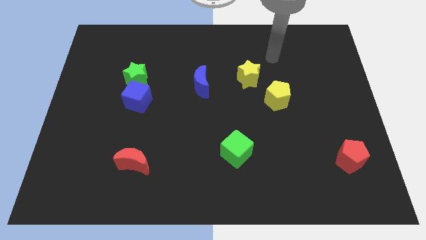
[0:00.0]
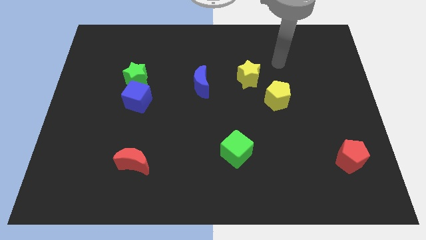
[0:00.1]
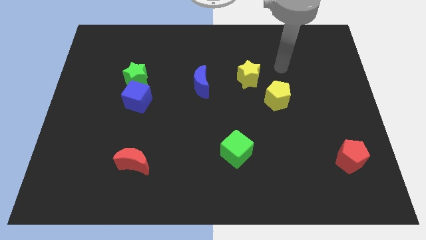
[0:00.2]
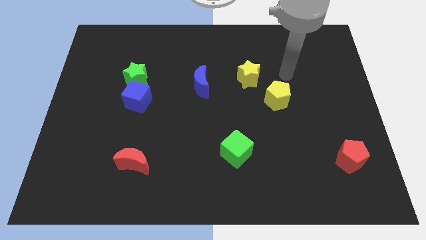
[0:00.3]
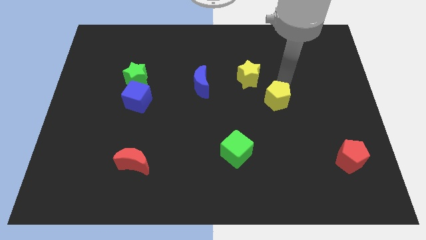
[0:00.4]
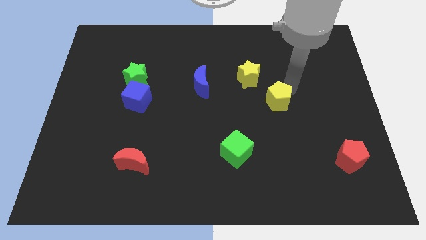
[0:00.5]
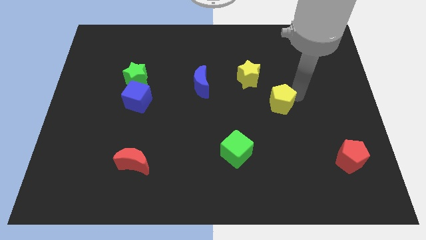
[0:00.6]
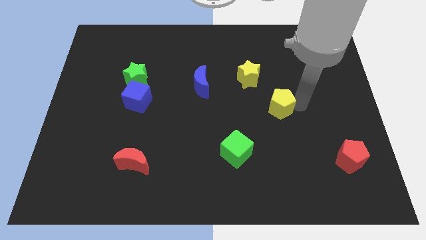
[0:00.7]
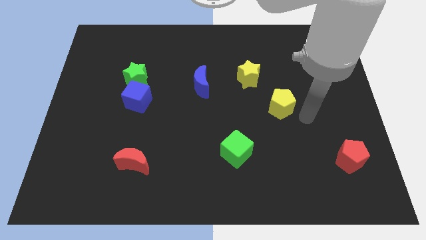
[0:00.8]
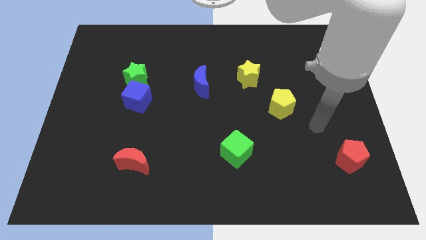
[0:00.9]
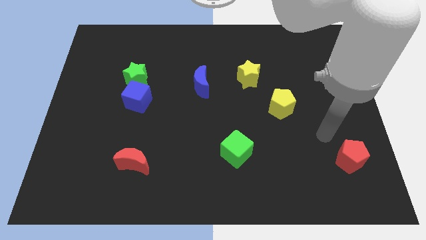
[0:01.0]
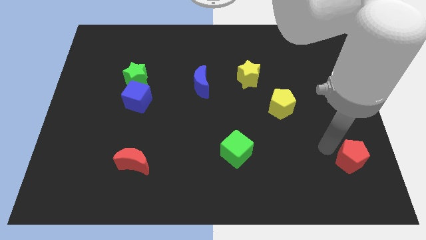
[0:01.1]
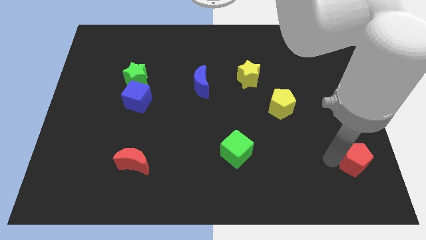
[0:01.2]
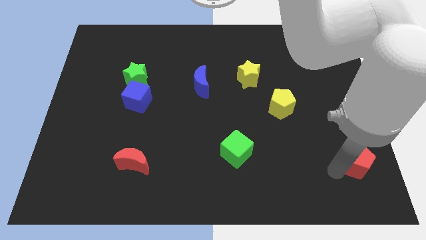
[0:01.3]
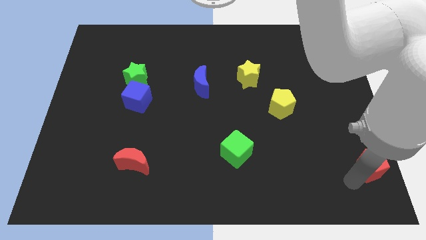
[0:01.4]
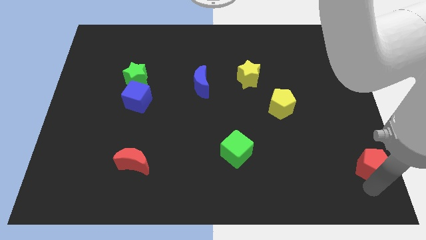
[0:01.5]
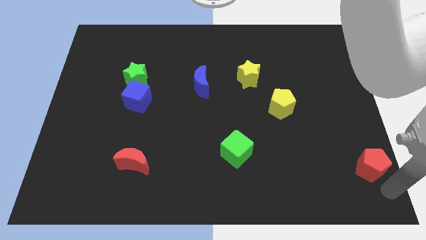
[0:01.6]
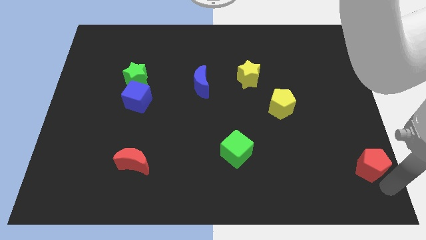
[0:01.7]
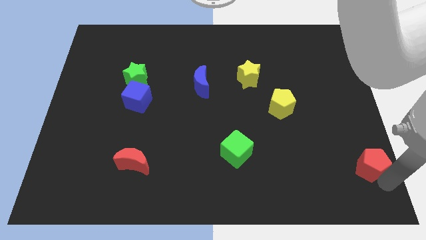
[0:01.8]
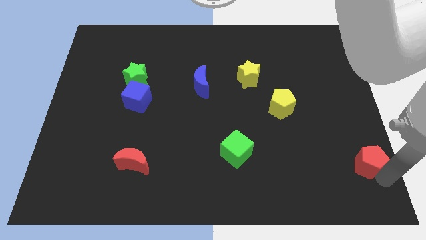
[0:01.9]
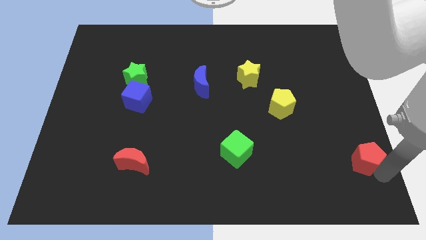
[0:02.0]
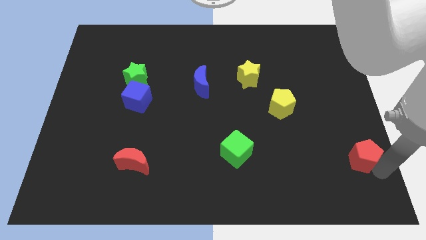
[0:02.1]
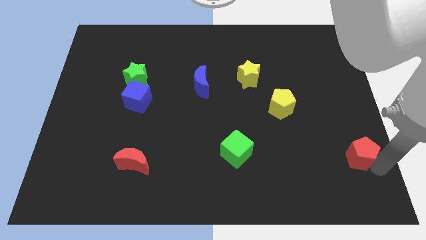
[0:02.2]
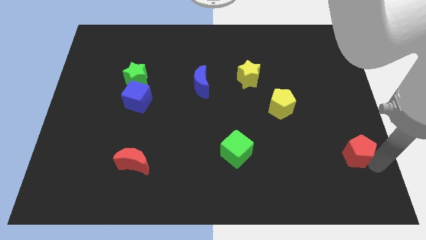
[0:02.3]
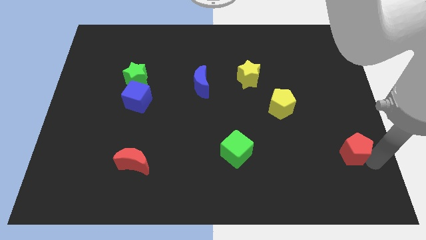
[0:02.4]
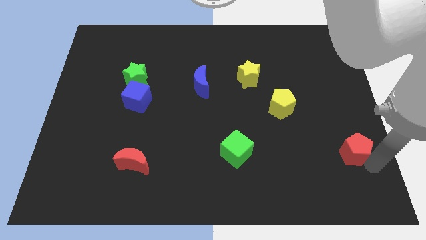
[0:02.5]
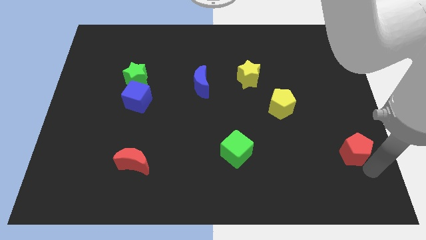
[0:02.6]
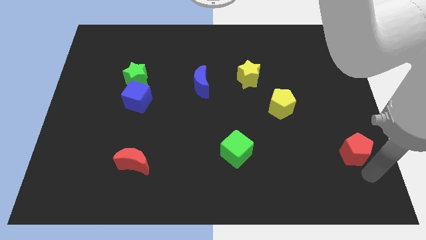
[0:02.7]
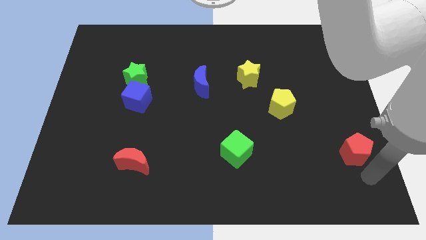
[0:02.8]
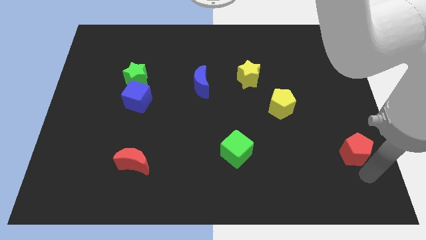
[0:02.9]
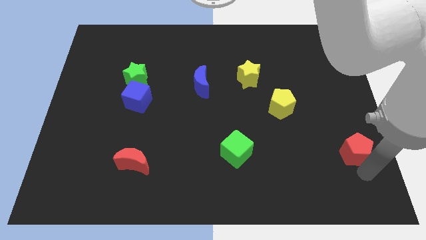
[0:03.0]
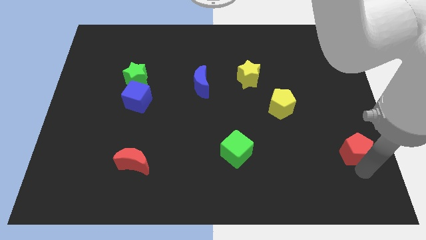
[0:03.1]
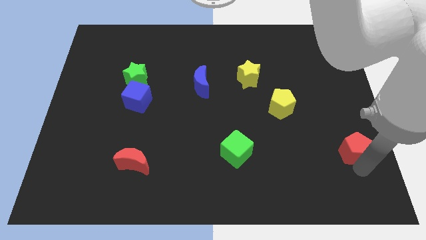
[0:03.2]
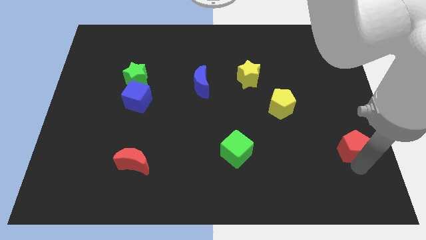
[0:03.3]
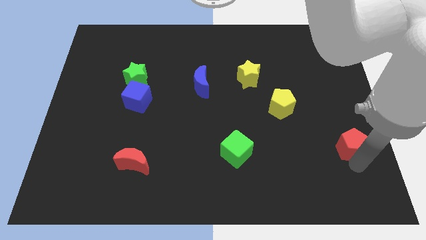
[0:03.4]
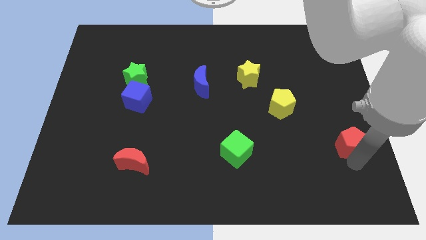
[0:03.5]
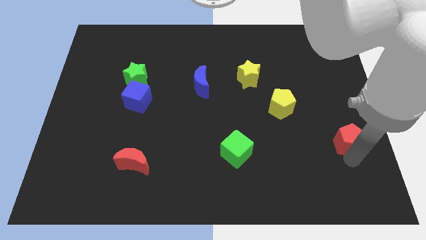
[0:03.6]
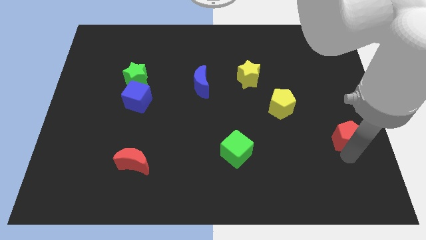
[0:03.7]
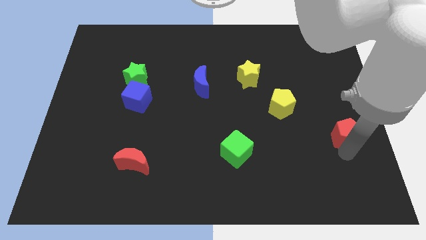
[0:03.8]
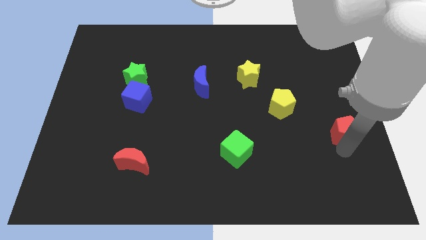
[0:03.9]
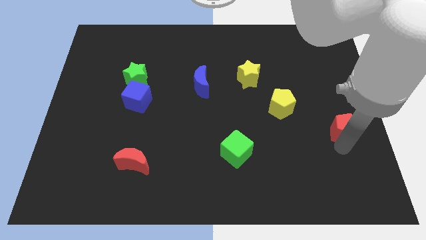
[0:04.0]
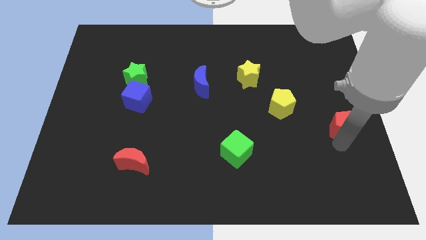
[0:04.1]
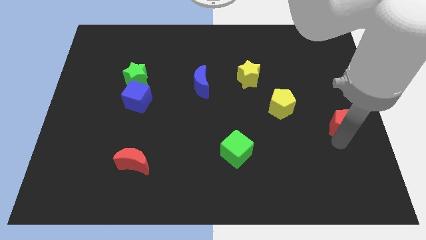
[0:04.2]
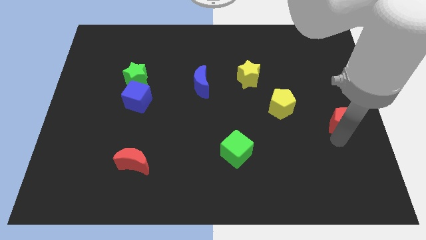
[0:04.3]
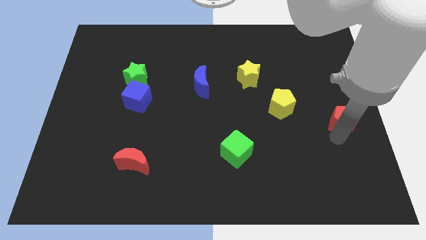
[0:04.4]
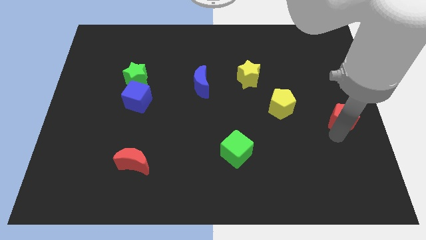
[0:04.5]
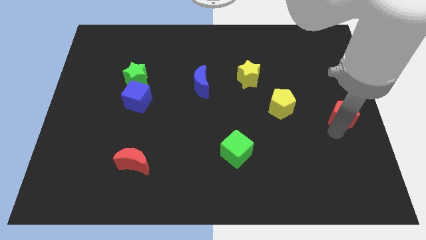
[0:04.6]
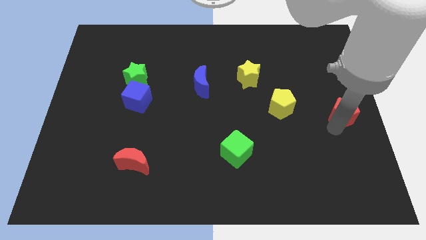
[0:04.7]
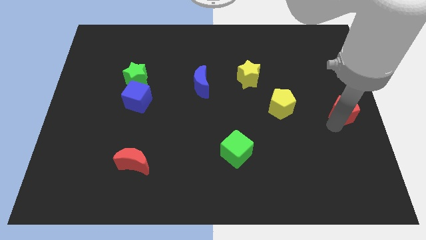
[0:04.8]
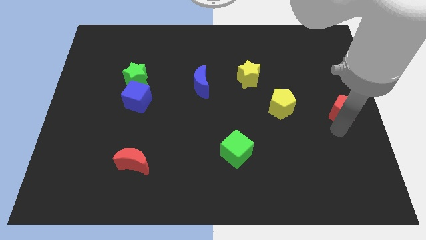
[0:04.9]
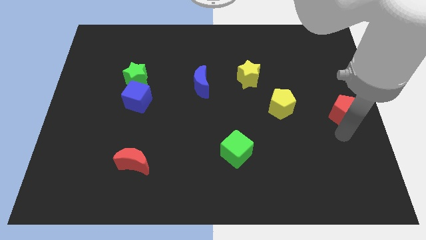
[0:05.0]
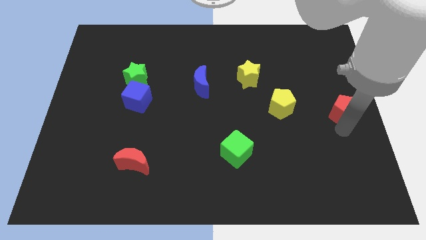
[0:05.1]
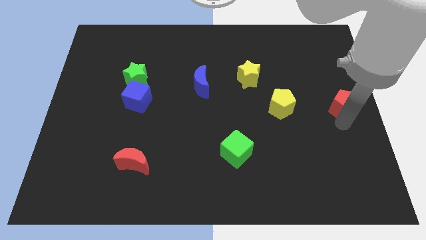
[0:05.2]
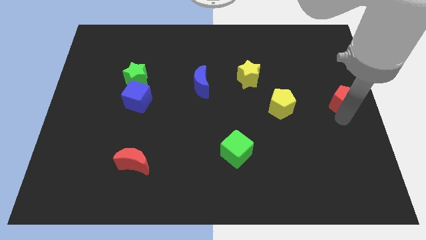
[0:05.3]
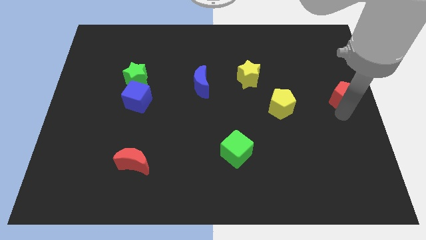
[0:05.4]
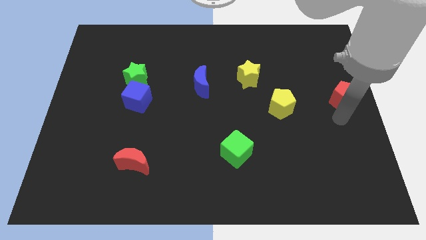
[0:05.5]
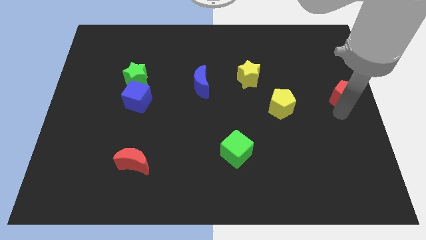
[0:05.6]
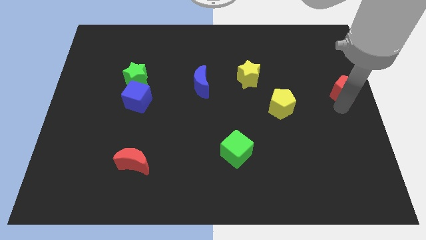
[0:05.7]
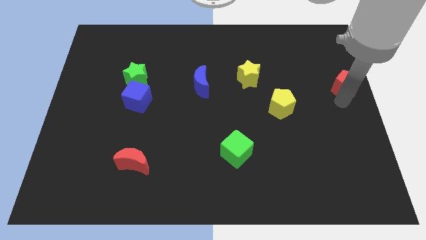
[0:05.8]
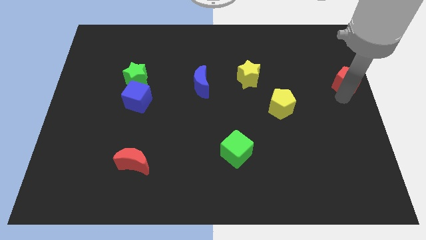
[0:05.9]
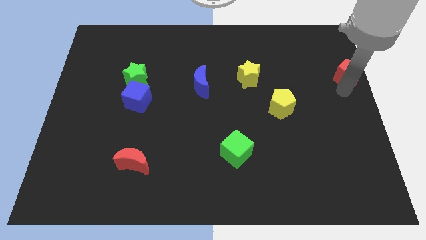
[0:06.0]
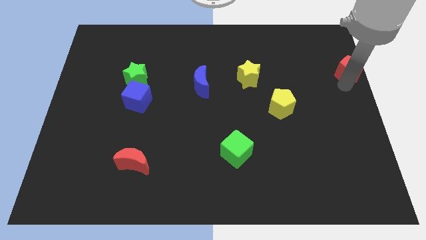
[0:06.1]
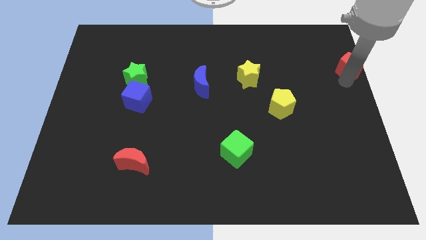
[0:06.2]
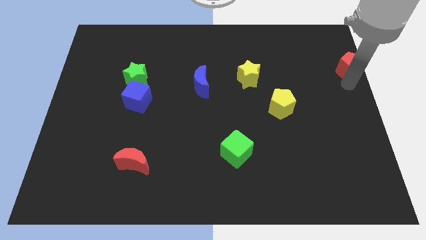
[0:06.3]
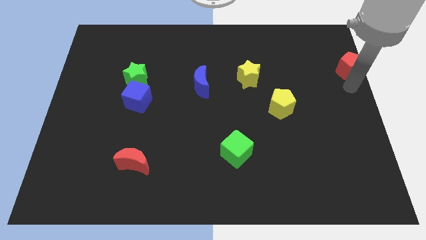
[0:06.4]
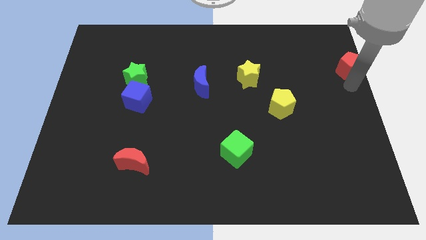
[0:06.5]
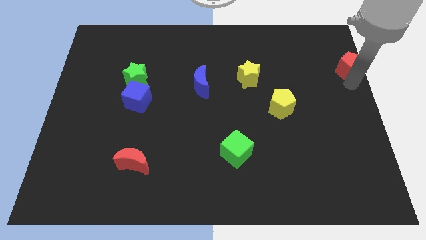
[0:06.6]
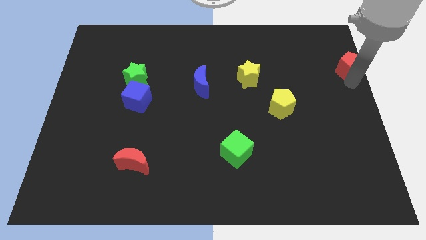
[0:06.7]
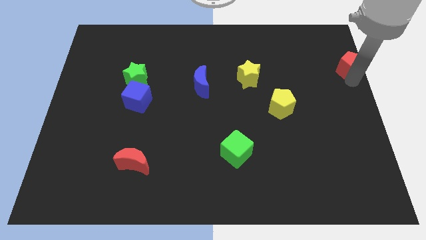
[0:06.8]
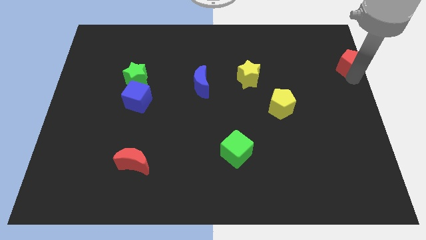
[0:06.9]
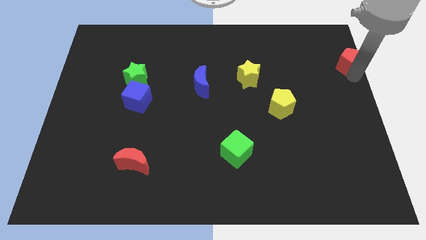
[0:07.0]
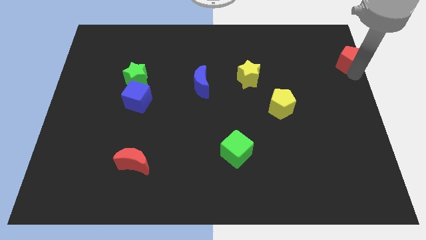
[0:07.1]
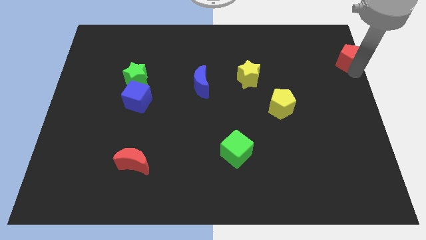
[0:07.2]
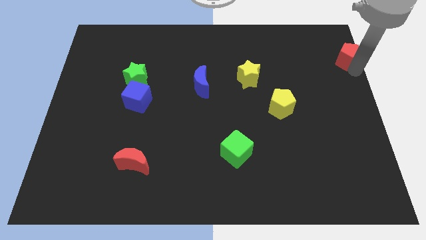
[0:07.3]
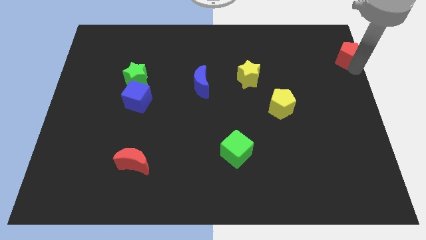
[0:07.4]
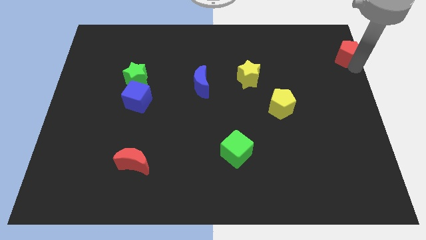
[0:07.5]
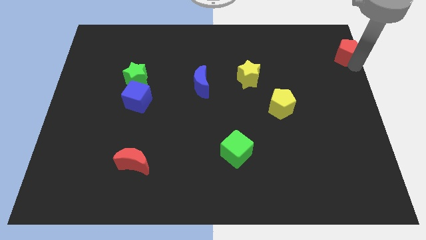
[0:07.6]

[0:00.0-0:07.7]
slide the red pentagon to the top right corner

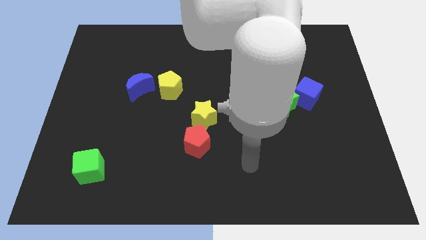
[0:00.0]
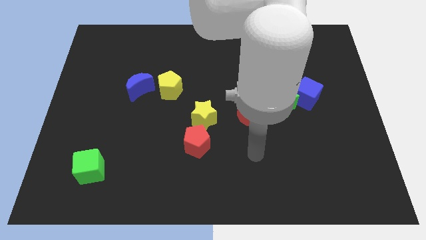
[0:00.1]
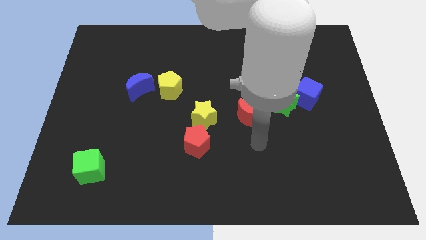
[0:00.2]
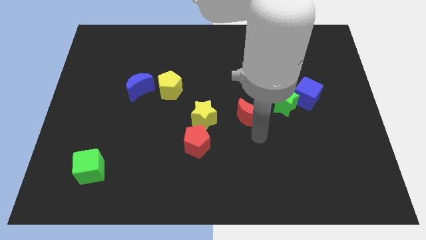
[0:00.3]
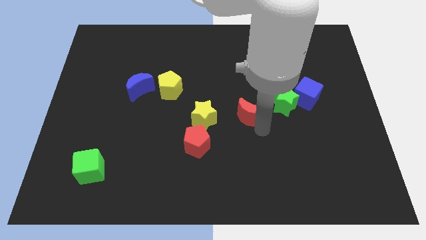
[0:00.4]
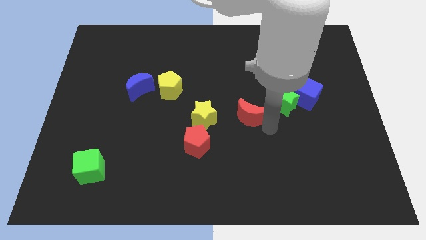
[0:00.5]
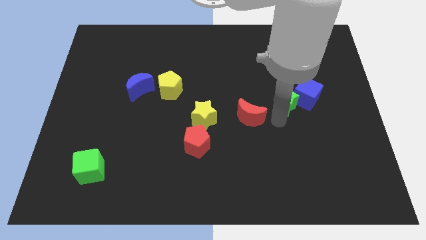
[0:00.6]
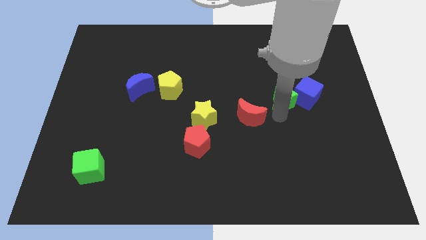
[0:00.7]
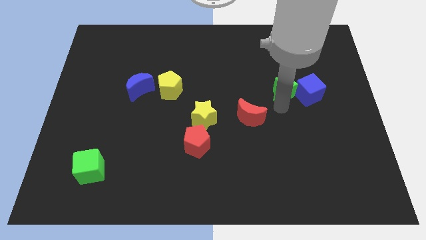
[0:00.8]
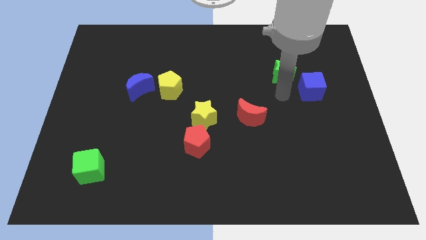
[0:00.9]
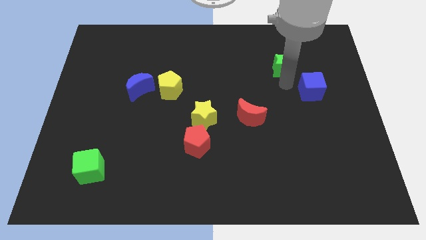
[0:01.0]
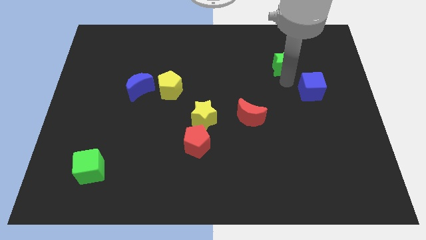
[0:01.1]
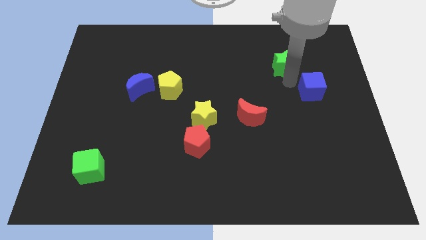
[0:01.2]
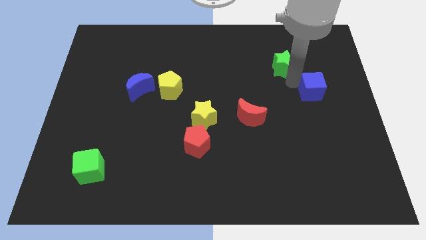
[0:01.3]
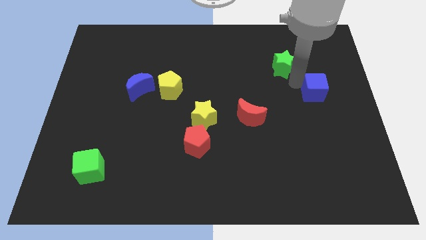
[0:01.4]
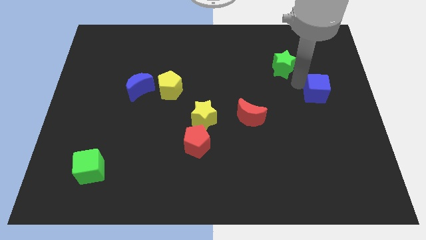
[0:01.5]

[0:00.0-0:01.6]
move the blue cube to the right side of the board
